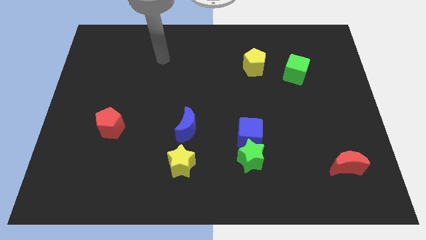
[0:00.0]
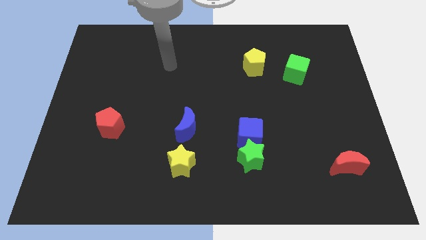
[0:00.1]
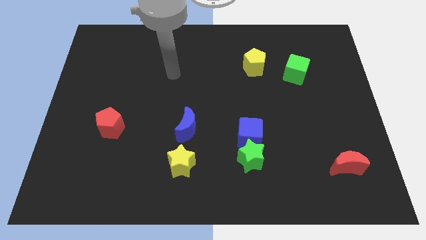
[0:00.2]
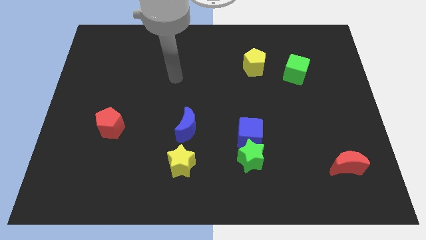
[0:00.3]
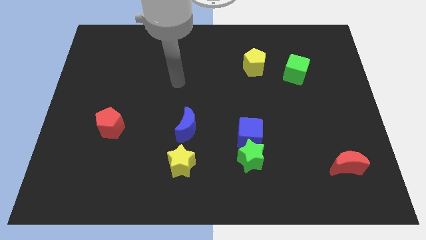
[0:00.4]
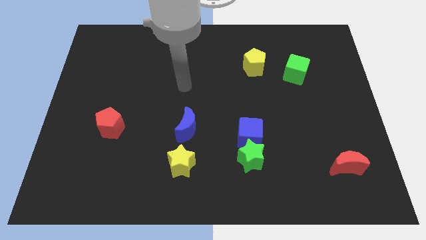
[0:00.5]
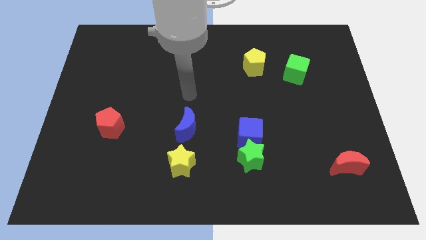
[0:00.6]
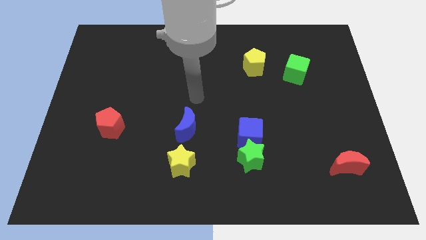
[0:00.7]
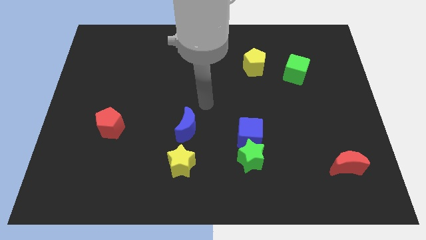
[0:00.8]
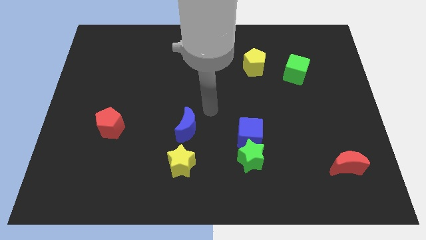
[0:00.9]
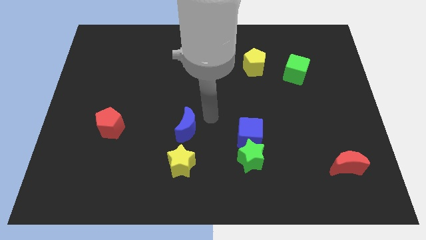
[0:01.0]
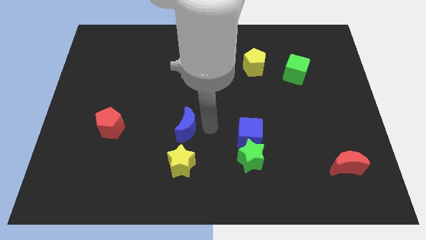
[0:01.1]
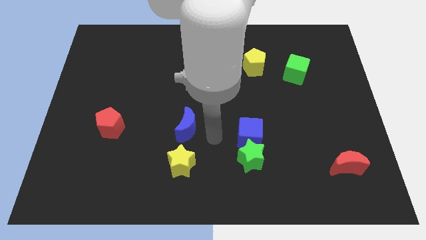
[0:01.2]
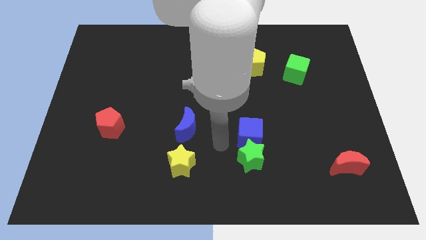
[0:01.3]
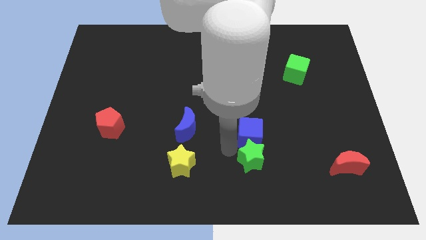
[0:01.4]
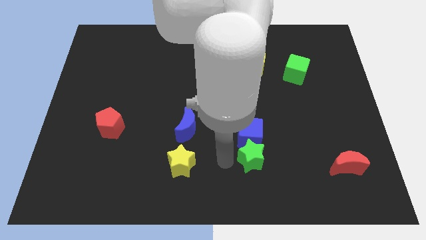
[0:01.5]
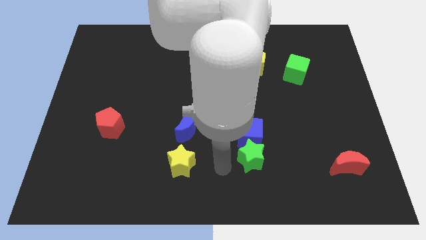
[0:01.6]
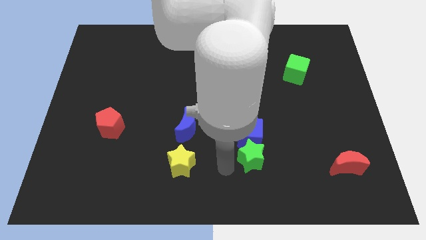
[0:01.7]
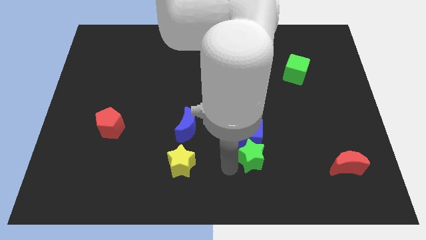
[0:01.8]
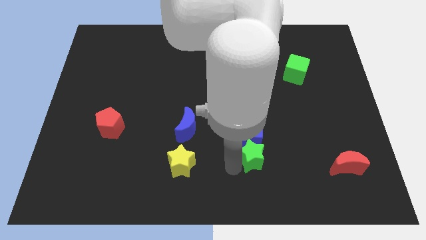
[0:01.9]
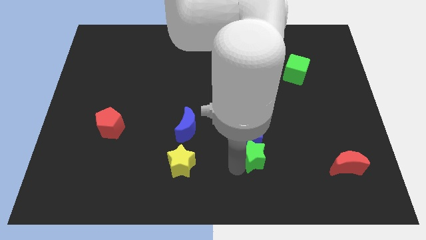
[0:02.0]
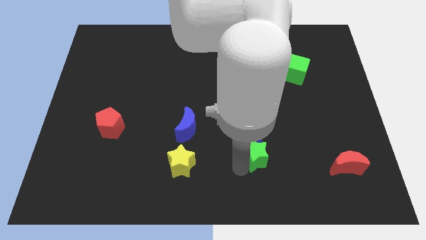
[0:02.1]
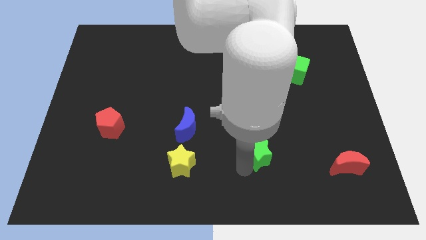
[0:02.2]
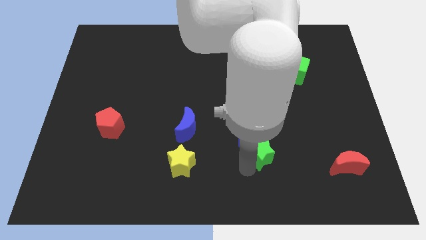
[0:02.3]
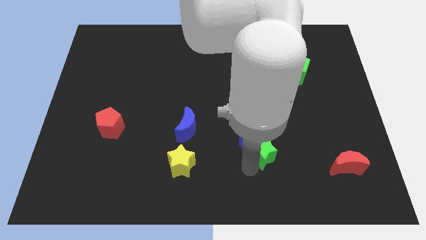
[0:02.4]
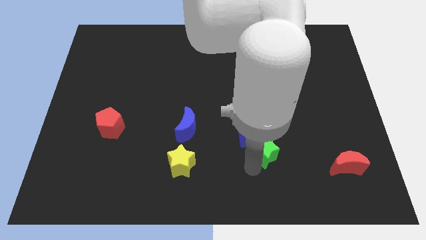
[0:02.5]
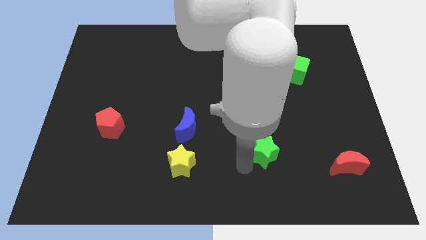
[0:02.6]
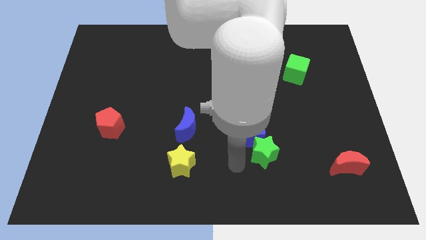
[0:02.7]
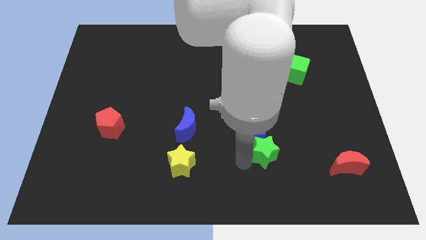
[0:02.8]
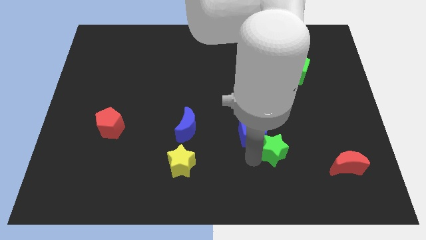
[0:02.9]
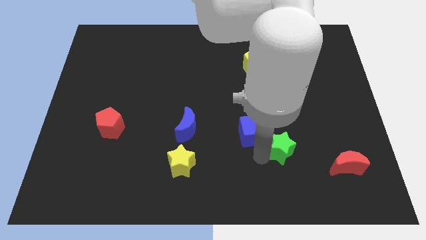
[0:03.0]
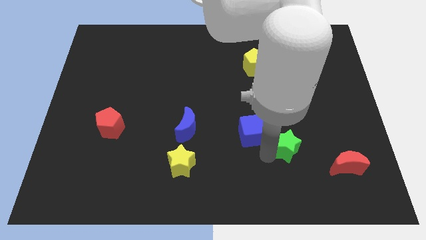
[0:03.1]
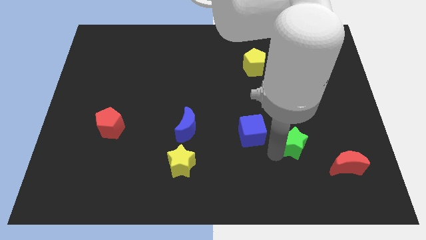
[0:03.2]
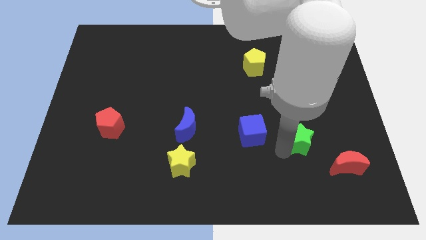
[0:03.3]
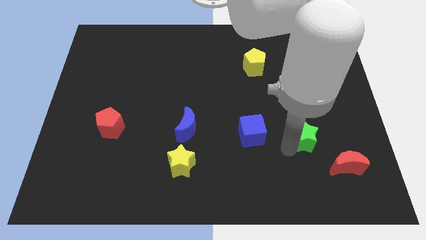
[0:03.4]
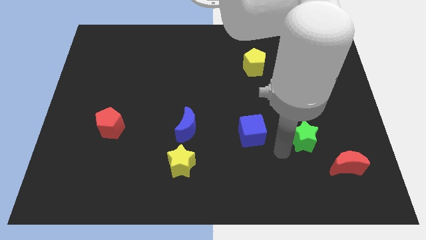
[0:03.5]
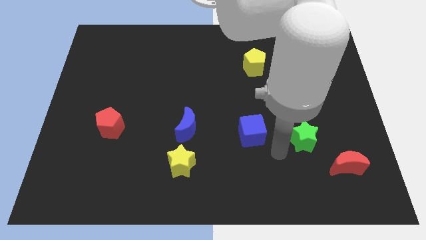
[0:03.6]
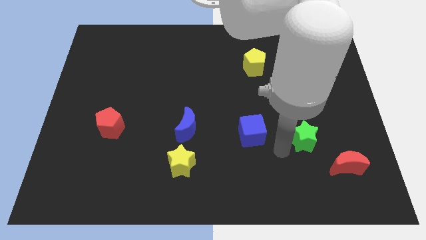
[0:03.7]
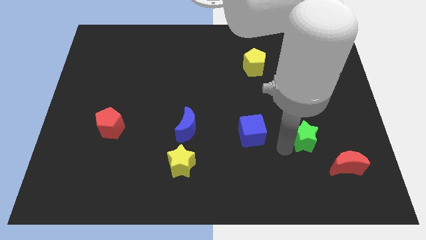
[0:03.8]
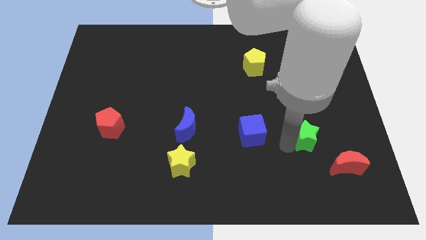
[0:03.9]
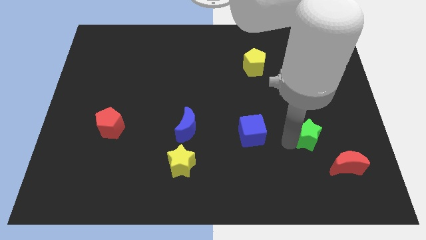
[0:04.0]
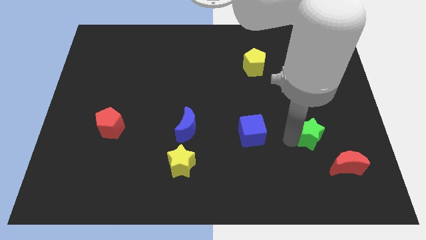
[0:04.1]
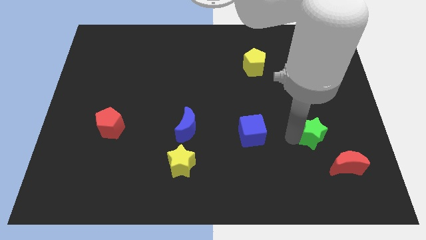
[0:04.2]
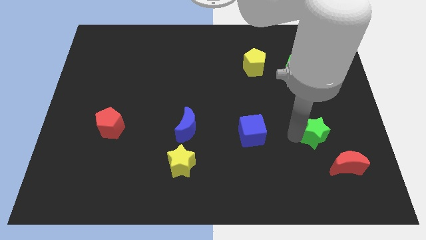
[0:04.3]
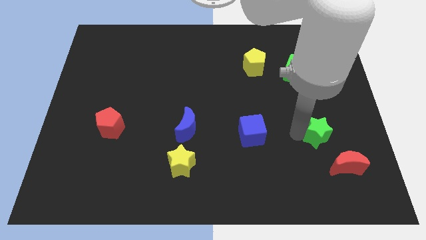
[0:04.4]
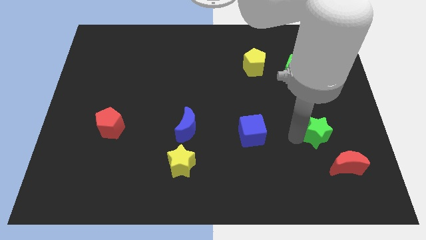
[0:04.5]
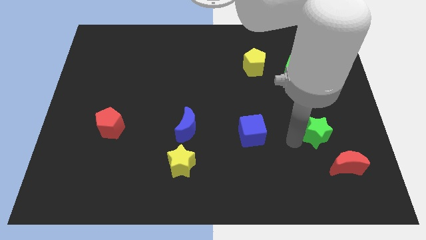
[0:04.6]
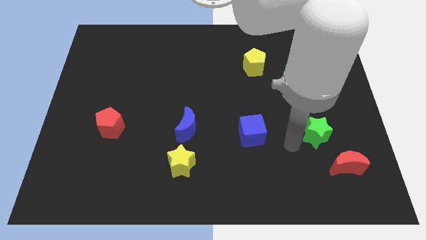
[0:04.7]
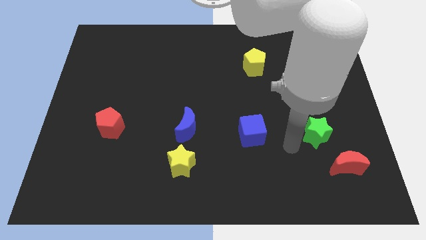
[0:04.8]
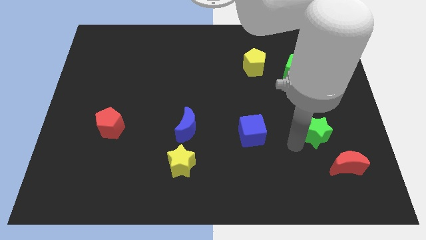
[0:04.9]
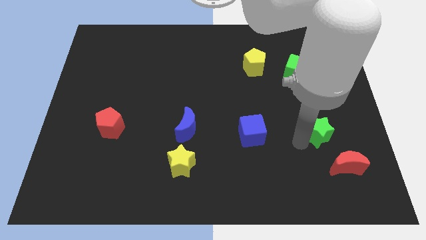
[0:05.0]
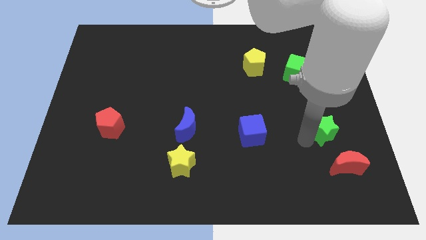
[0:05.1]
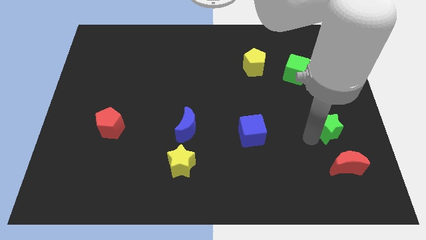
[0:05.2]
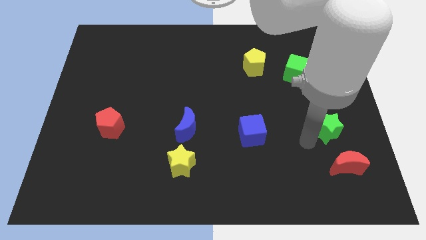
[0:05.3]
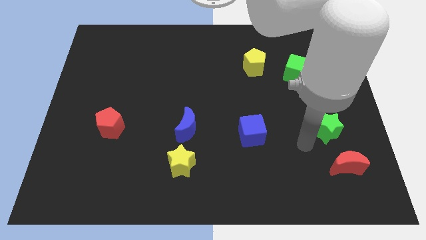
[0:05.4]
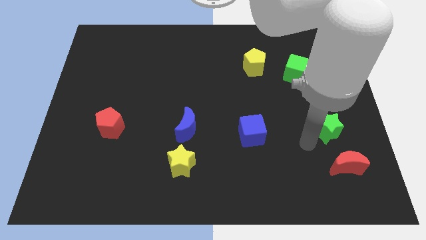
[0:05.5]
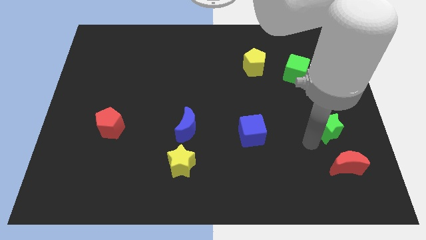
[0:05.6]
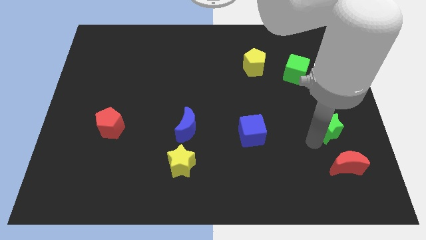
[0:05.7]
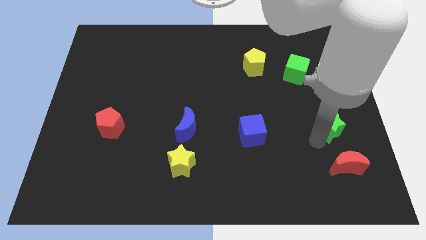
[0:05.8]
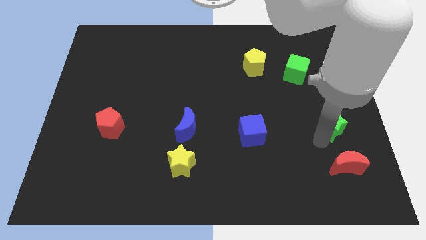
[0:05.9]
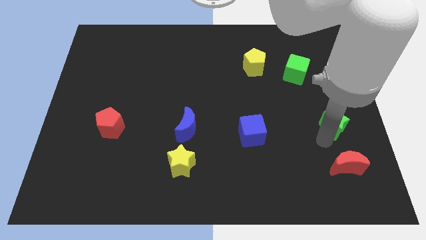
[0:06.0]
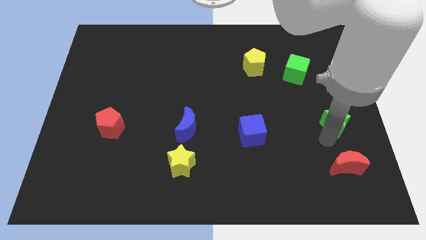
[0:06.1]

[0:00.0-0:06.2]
push the green star to the center right
